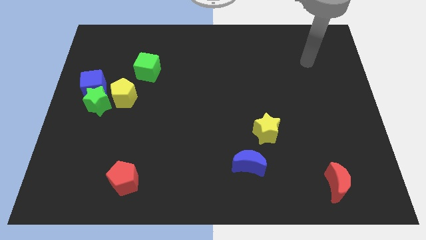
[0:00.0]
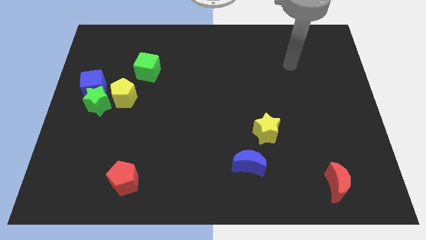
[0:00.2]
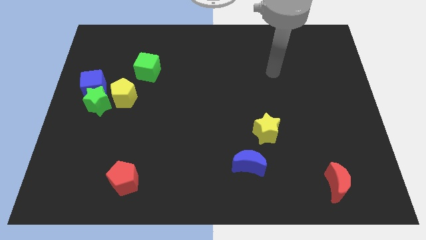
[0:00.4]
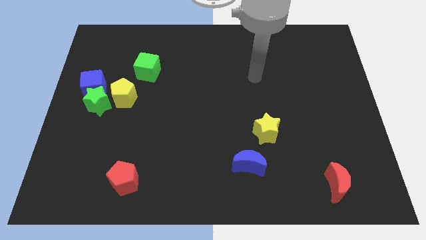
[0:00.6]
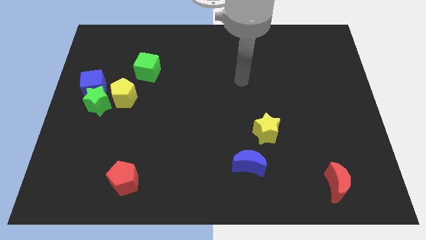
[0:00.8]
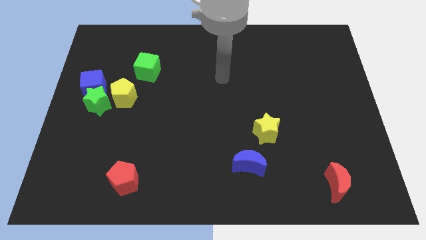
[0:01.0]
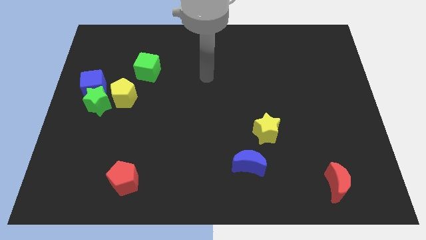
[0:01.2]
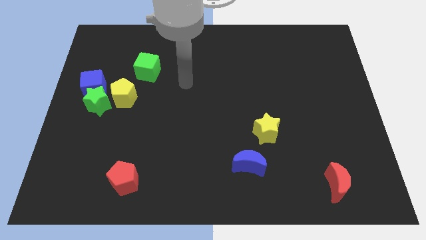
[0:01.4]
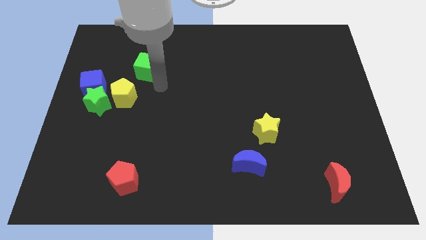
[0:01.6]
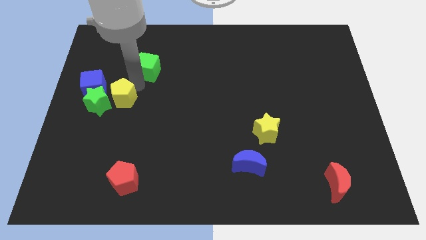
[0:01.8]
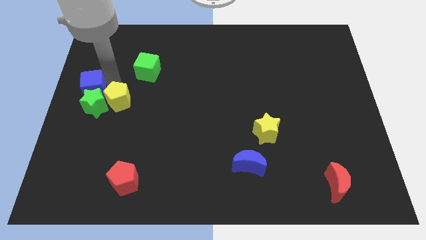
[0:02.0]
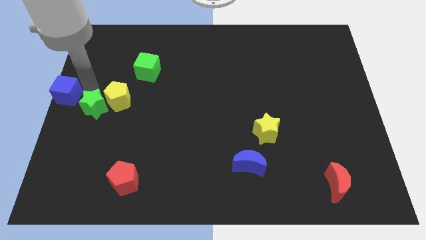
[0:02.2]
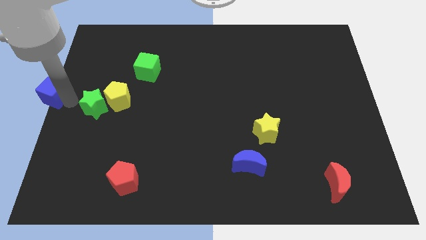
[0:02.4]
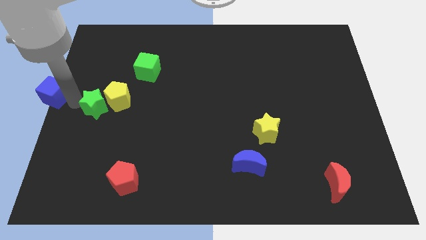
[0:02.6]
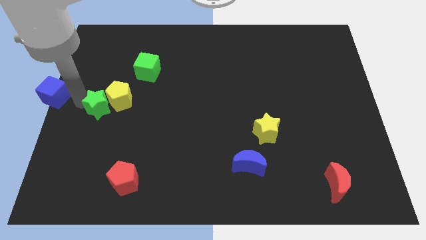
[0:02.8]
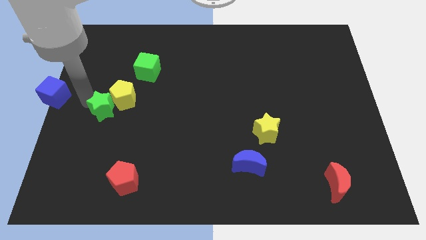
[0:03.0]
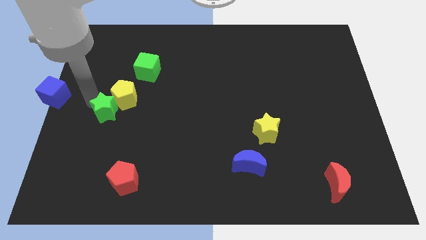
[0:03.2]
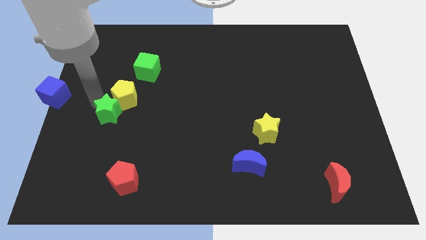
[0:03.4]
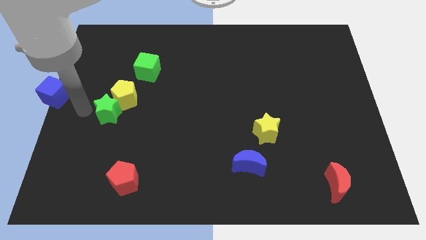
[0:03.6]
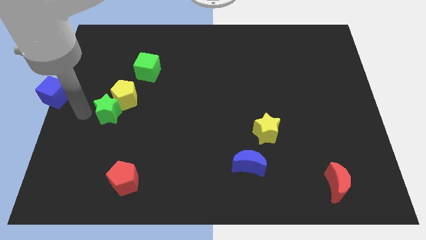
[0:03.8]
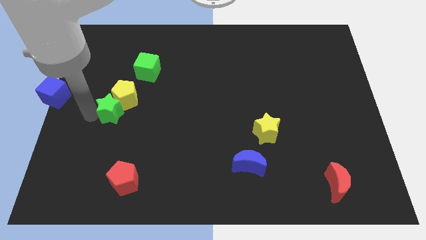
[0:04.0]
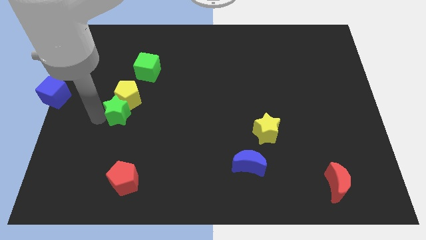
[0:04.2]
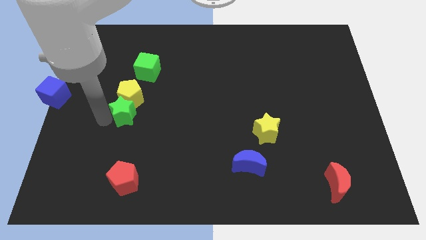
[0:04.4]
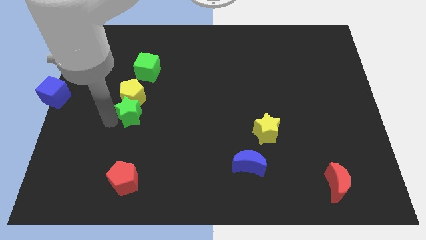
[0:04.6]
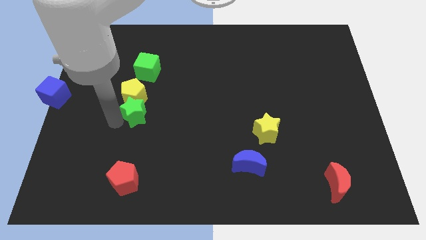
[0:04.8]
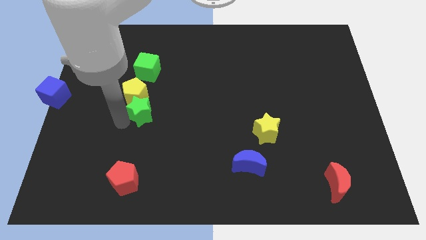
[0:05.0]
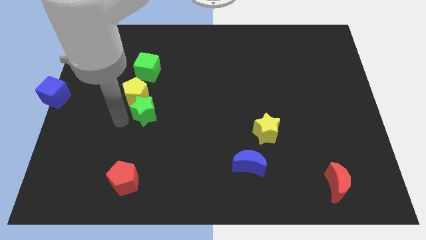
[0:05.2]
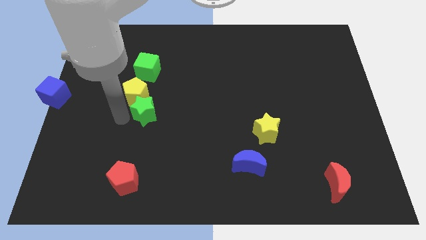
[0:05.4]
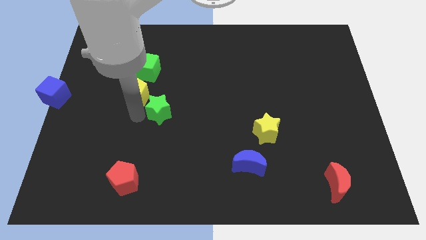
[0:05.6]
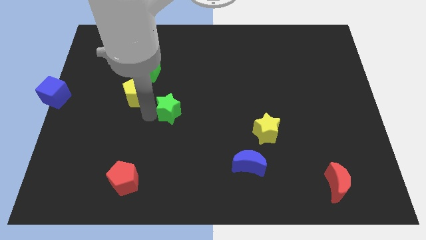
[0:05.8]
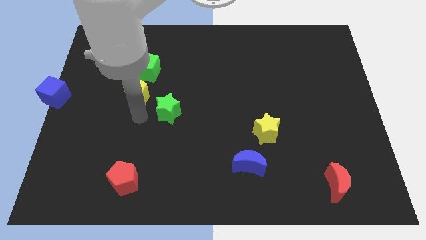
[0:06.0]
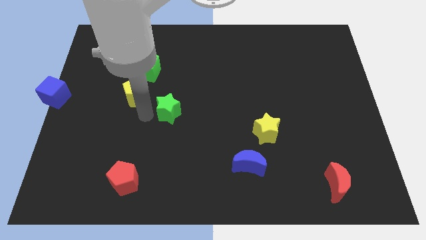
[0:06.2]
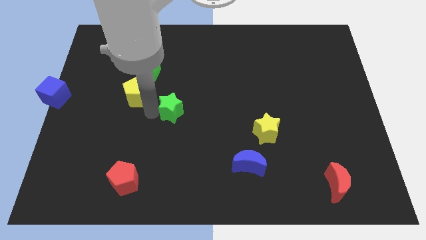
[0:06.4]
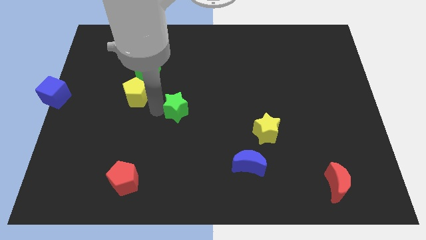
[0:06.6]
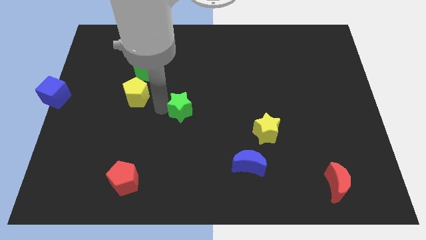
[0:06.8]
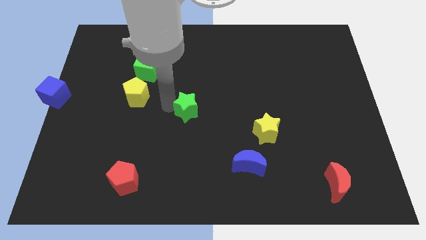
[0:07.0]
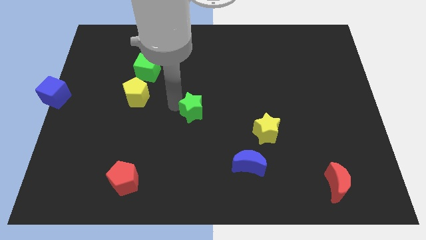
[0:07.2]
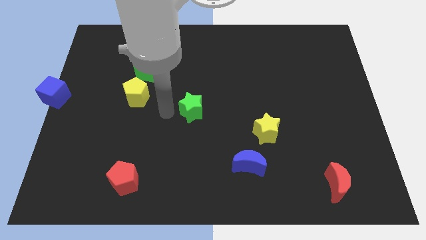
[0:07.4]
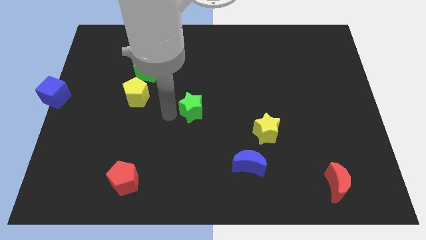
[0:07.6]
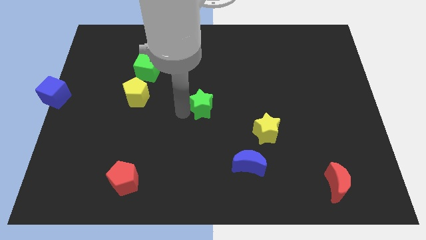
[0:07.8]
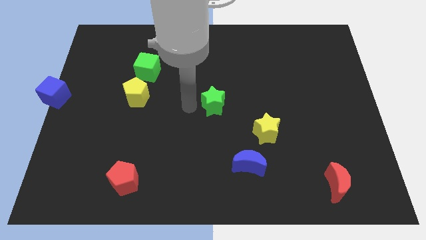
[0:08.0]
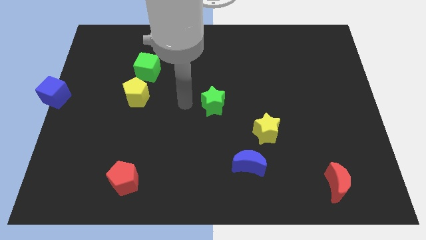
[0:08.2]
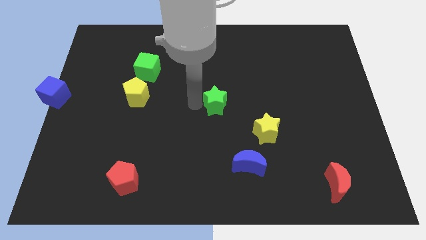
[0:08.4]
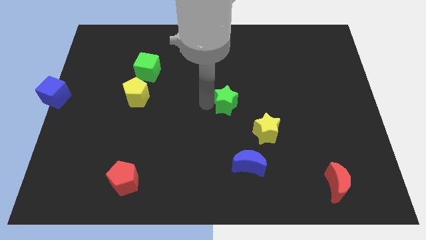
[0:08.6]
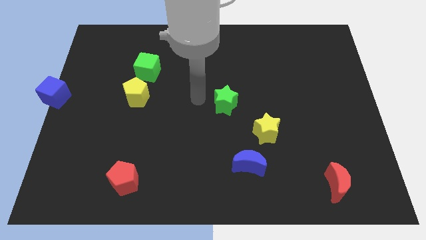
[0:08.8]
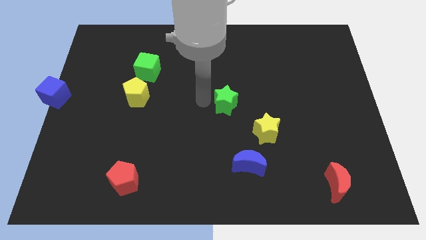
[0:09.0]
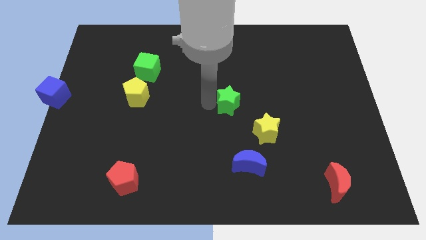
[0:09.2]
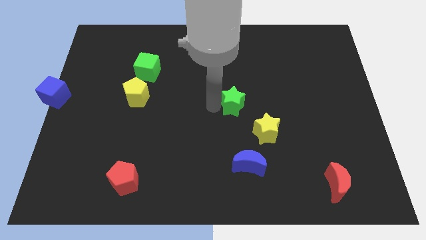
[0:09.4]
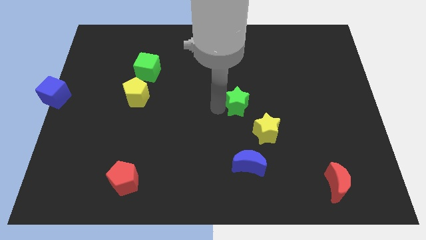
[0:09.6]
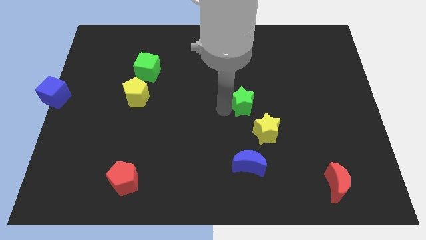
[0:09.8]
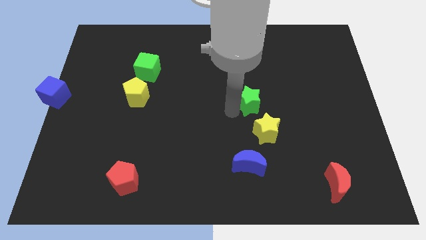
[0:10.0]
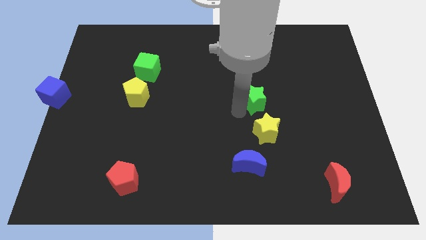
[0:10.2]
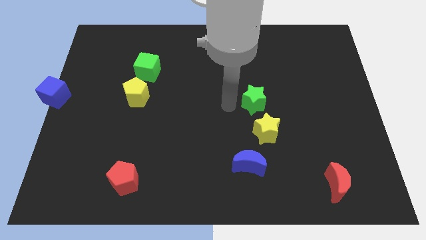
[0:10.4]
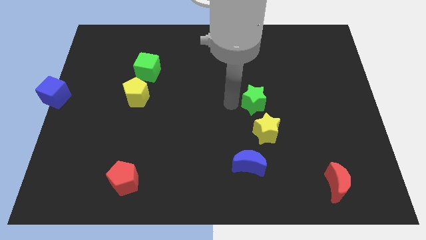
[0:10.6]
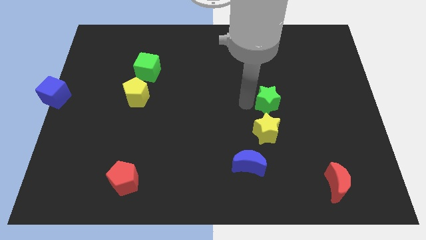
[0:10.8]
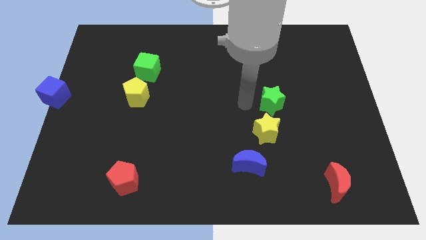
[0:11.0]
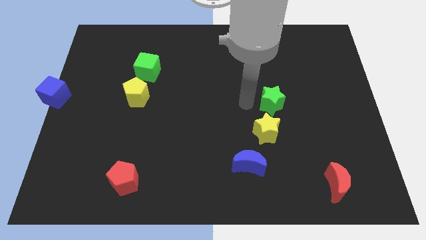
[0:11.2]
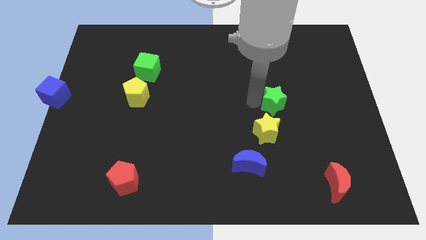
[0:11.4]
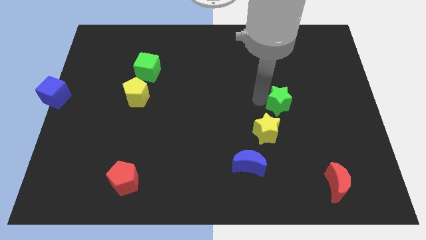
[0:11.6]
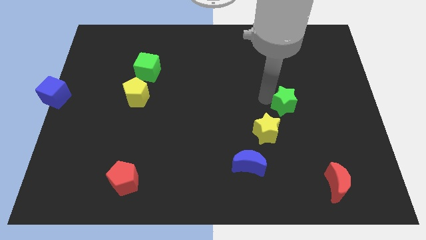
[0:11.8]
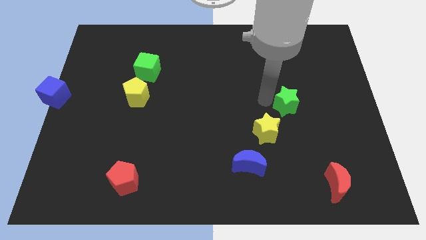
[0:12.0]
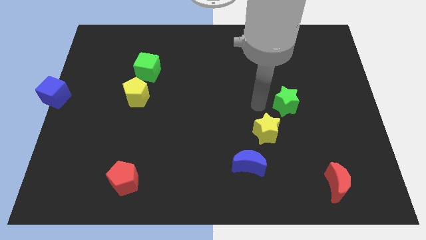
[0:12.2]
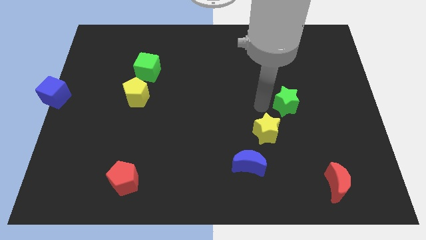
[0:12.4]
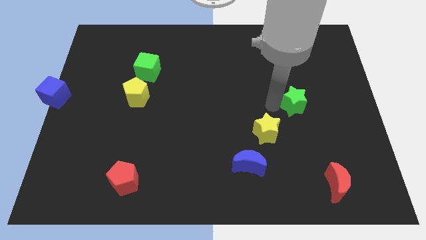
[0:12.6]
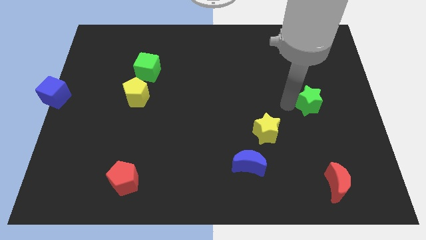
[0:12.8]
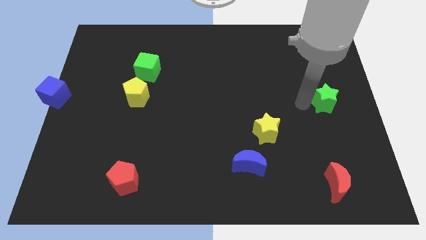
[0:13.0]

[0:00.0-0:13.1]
push the green star to the center right

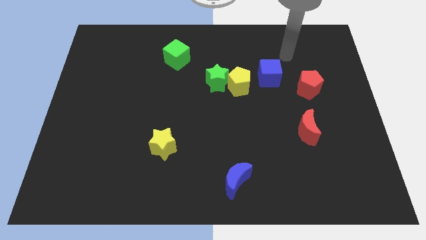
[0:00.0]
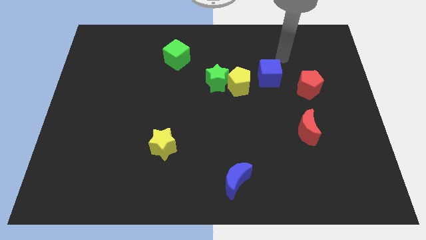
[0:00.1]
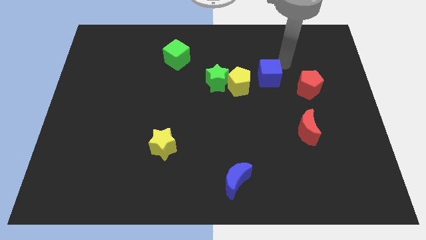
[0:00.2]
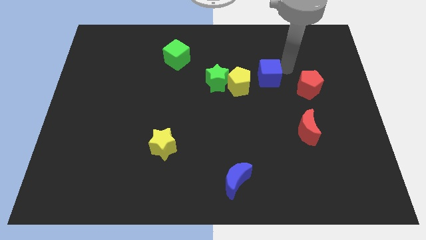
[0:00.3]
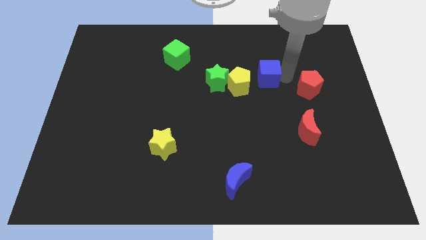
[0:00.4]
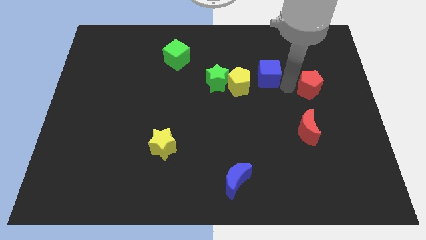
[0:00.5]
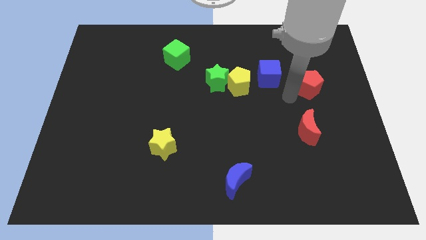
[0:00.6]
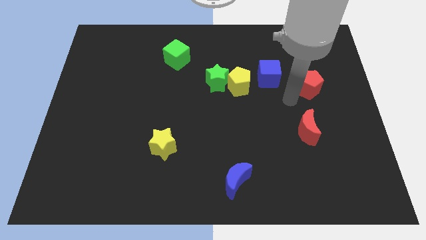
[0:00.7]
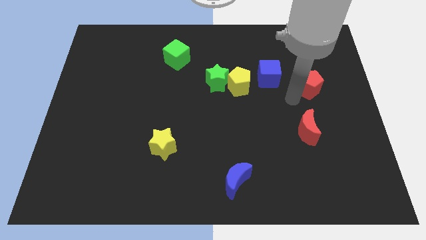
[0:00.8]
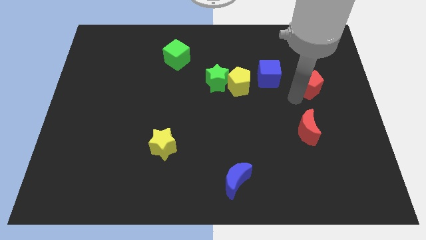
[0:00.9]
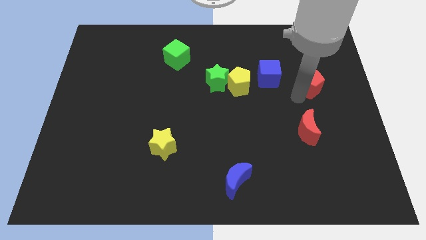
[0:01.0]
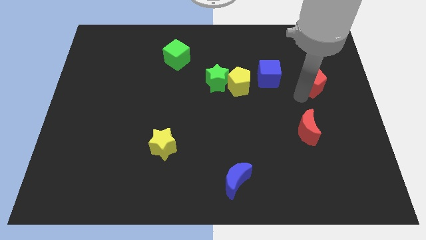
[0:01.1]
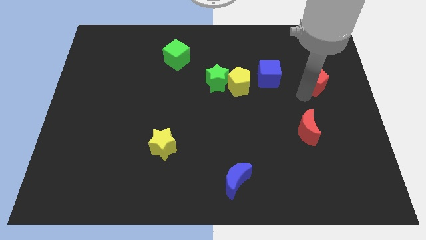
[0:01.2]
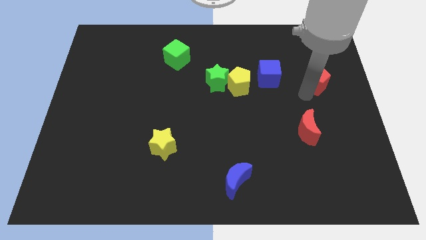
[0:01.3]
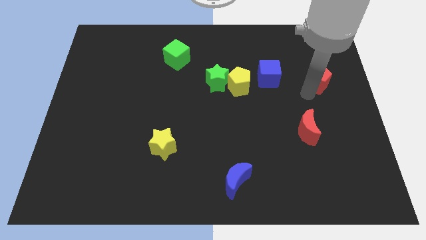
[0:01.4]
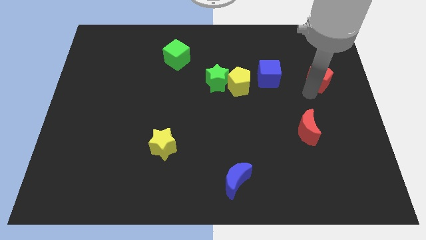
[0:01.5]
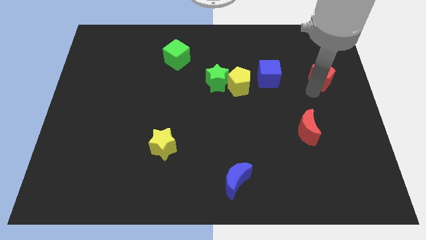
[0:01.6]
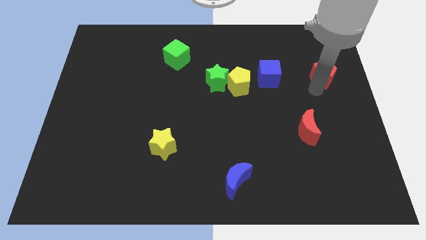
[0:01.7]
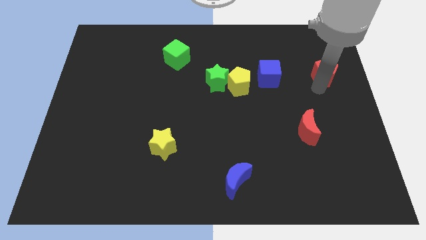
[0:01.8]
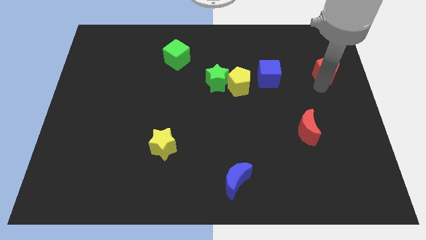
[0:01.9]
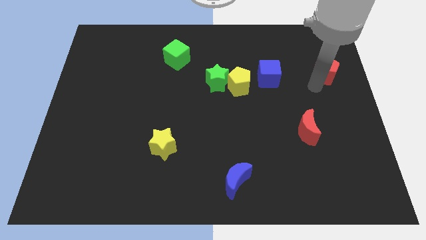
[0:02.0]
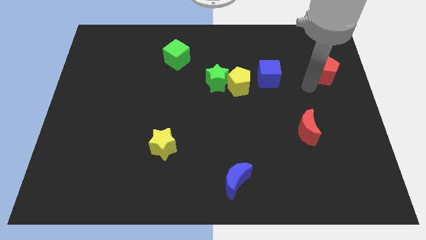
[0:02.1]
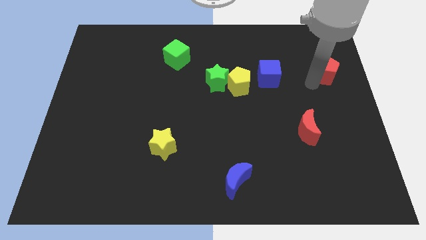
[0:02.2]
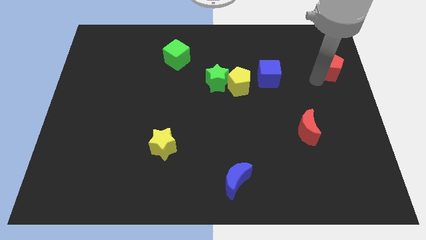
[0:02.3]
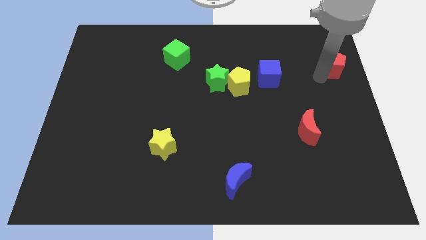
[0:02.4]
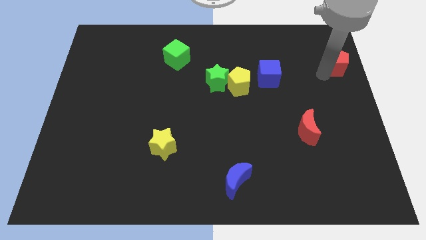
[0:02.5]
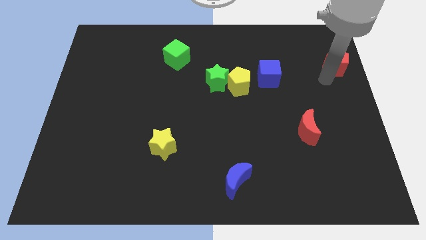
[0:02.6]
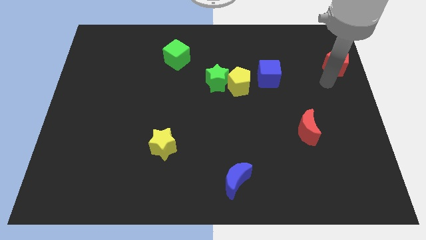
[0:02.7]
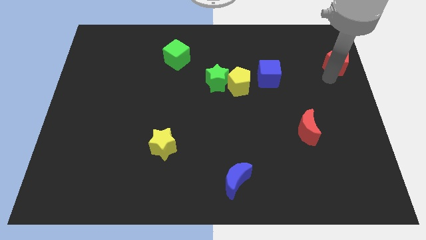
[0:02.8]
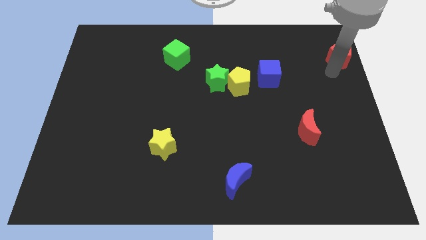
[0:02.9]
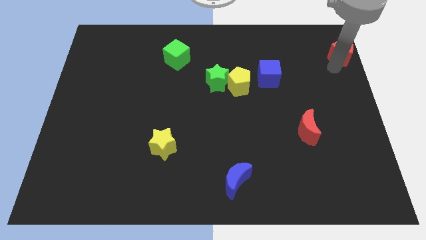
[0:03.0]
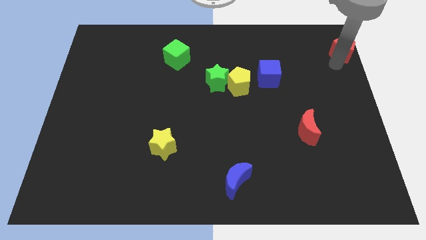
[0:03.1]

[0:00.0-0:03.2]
move the red pentagon to the top right corner
